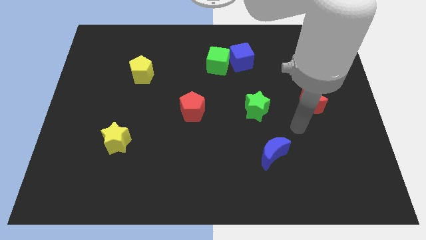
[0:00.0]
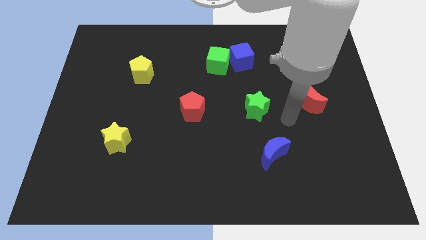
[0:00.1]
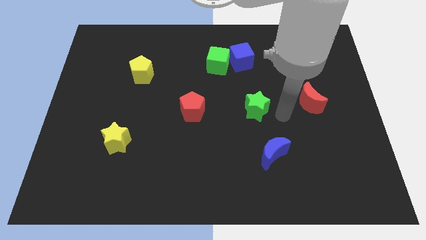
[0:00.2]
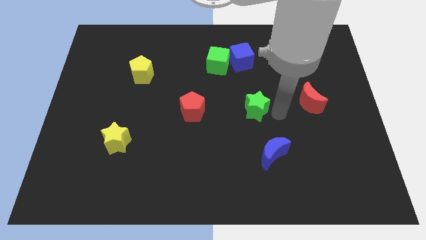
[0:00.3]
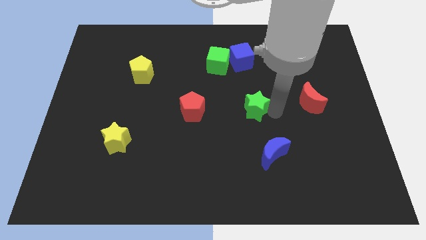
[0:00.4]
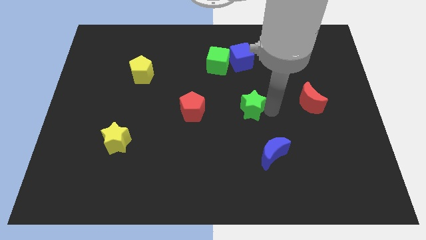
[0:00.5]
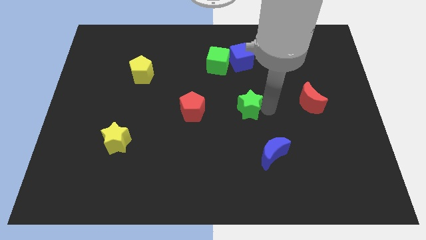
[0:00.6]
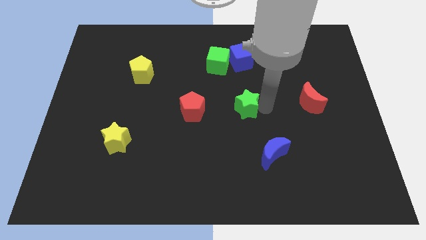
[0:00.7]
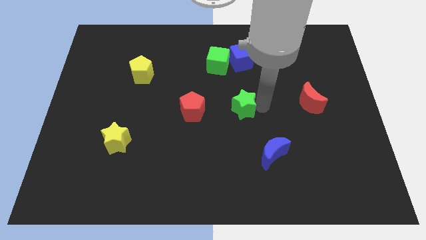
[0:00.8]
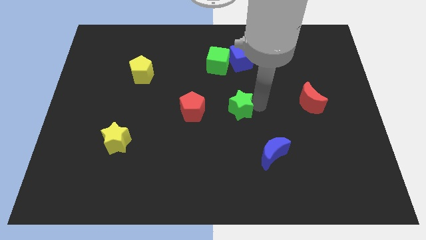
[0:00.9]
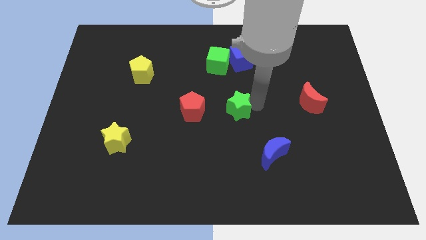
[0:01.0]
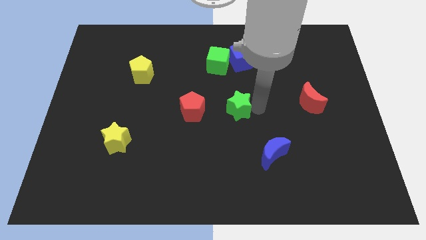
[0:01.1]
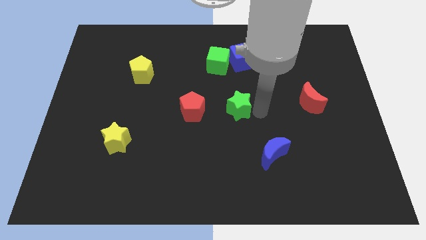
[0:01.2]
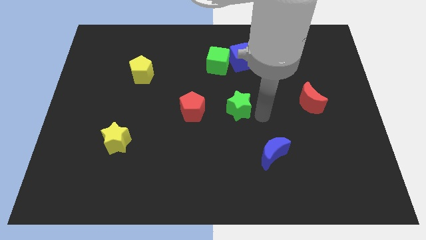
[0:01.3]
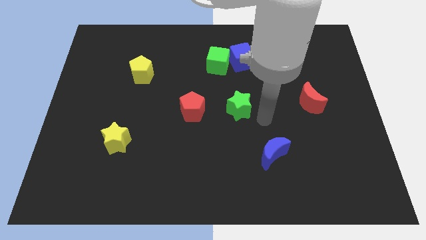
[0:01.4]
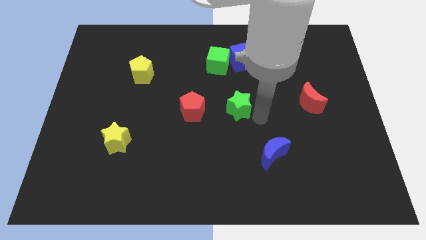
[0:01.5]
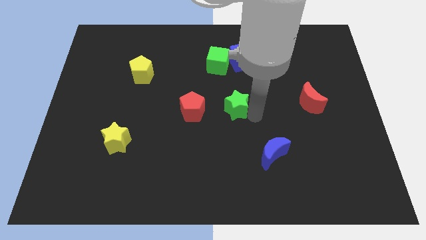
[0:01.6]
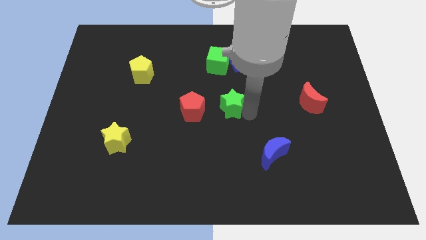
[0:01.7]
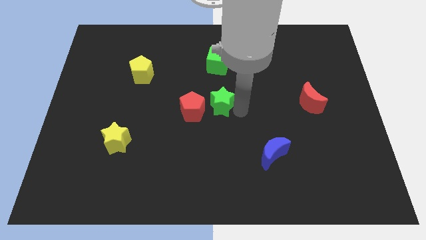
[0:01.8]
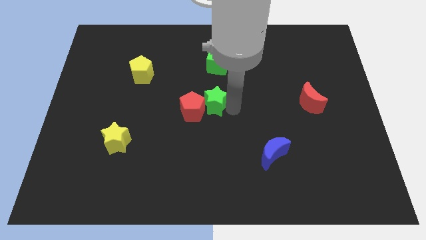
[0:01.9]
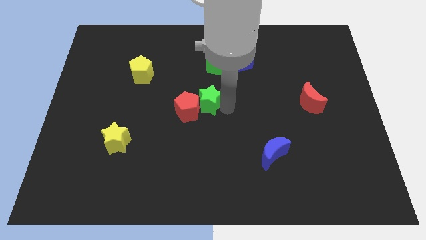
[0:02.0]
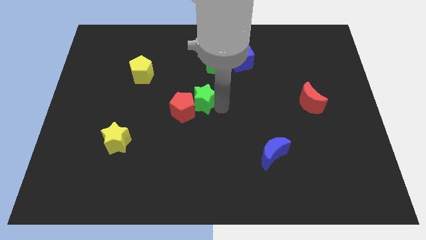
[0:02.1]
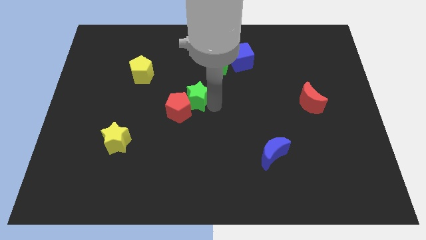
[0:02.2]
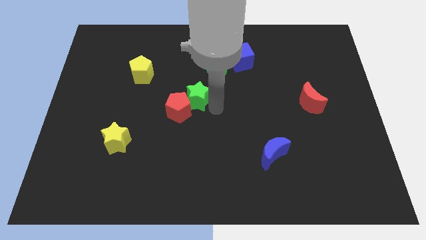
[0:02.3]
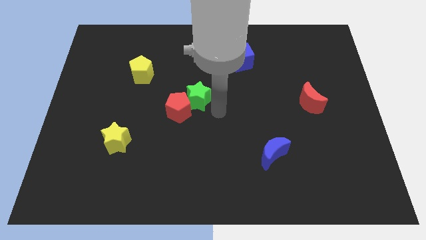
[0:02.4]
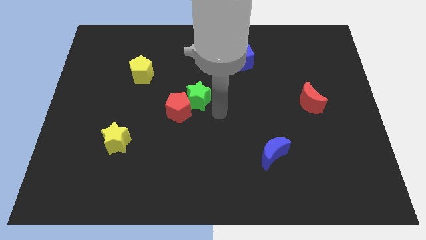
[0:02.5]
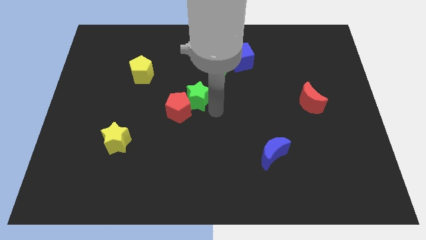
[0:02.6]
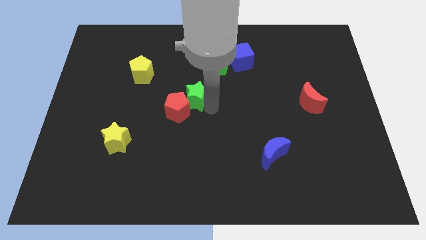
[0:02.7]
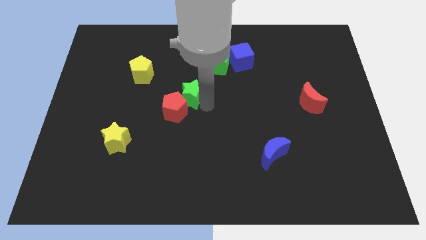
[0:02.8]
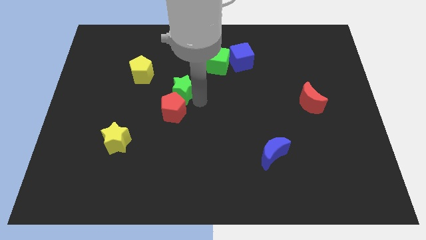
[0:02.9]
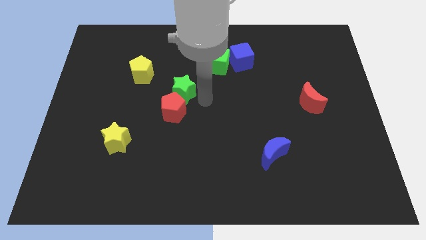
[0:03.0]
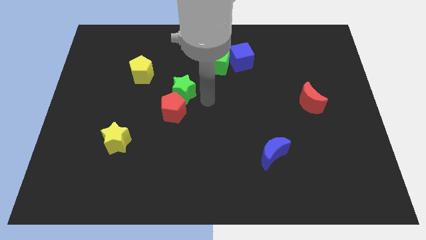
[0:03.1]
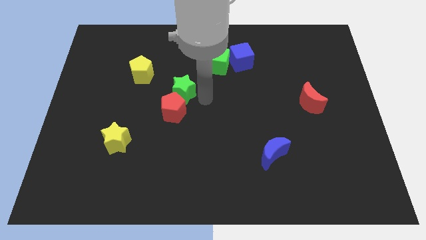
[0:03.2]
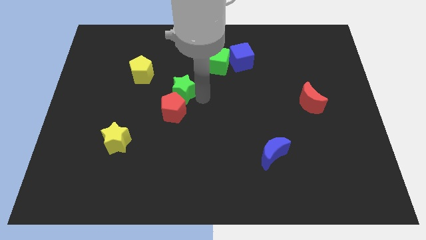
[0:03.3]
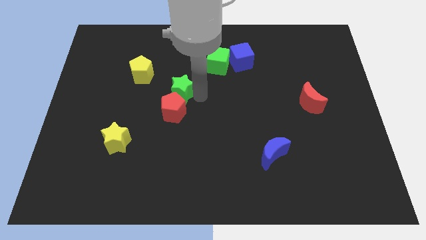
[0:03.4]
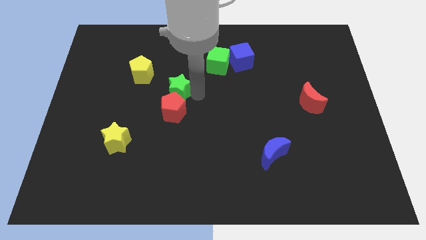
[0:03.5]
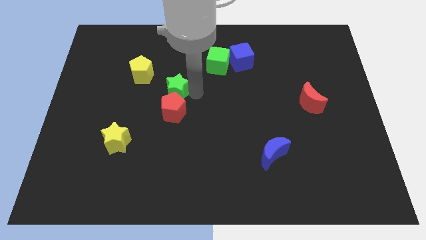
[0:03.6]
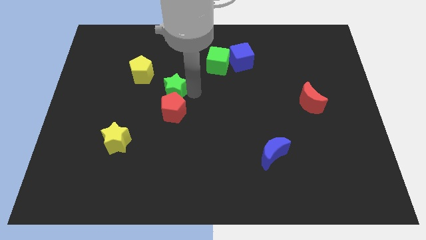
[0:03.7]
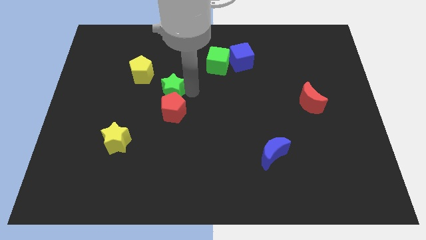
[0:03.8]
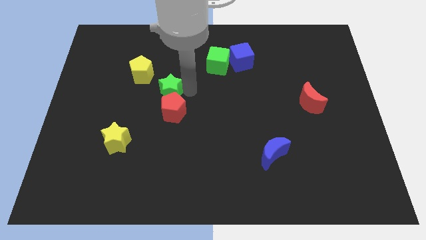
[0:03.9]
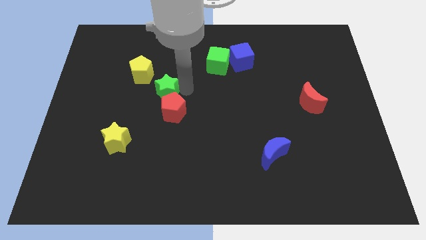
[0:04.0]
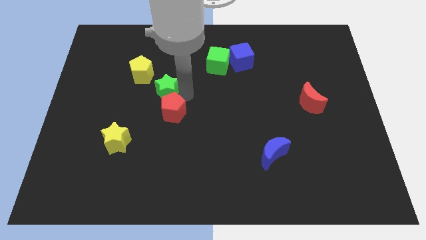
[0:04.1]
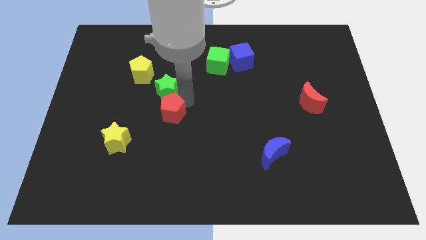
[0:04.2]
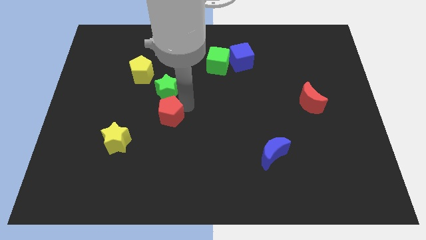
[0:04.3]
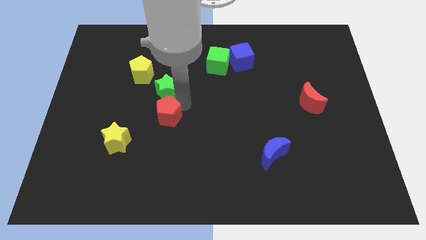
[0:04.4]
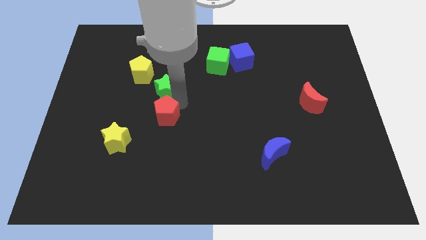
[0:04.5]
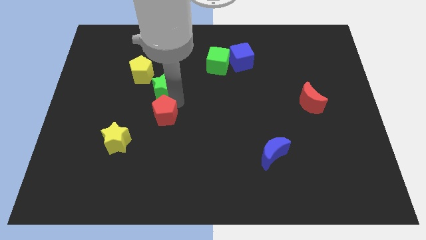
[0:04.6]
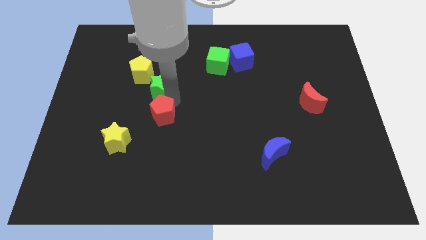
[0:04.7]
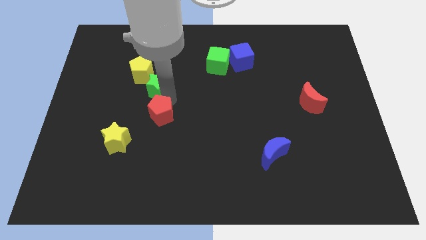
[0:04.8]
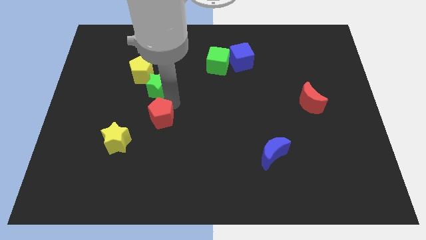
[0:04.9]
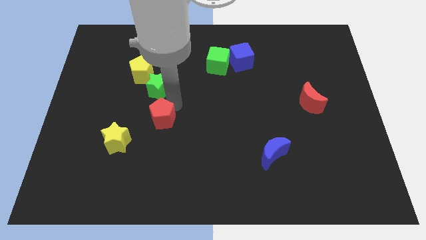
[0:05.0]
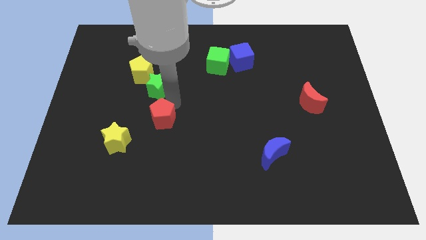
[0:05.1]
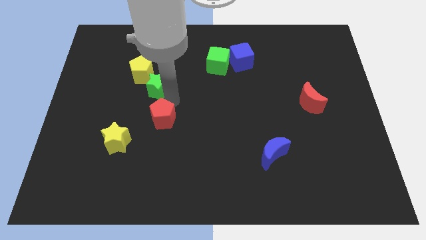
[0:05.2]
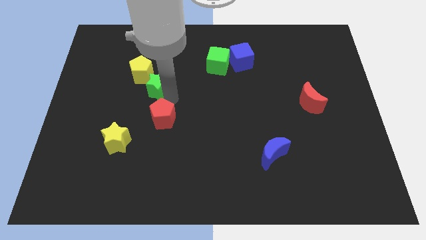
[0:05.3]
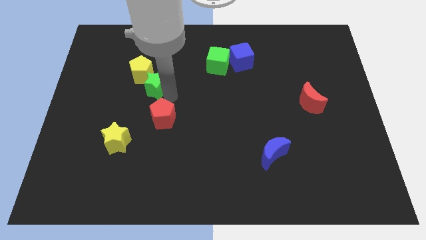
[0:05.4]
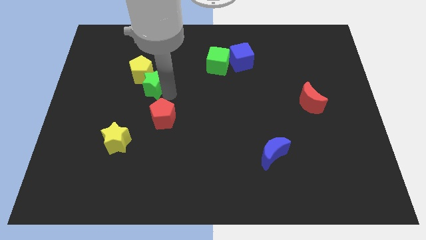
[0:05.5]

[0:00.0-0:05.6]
move the green star next to the yellow pentagon
